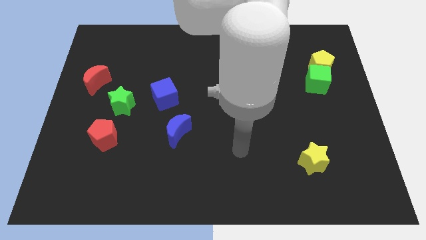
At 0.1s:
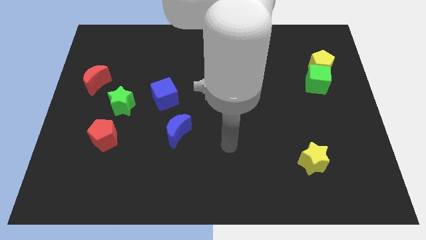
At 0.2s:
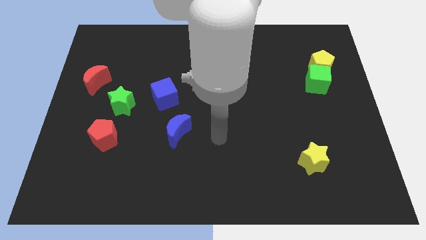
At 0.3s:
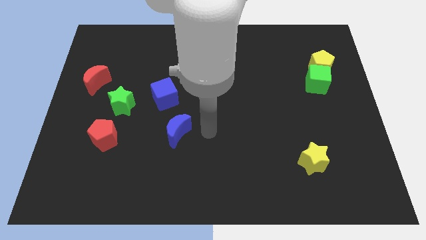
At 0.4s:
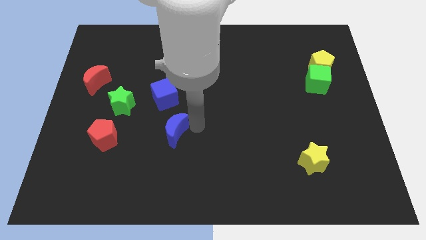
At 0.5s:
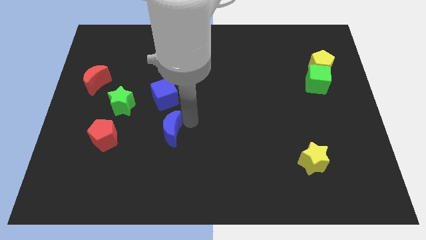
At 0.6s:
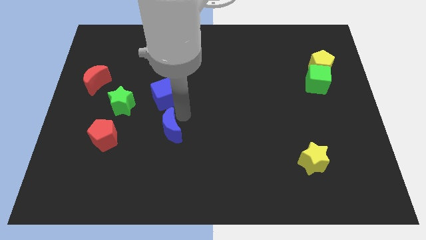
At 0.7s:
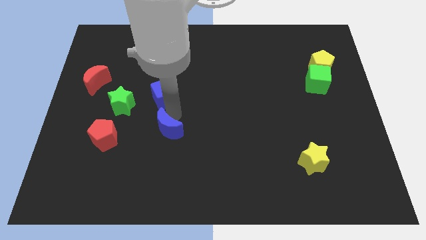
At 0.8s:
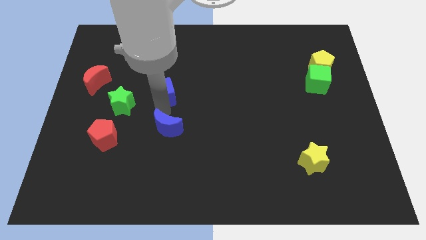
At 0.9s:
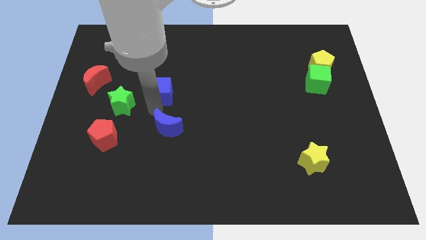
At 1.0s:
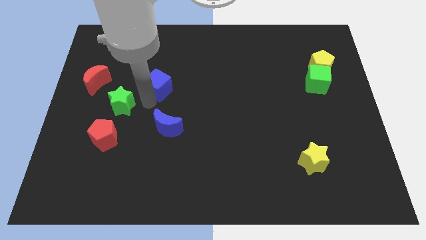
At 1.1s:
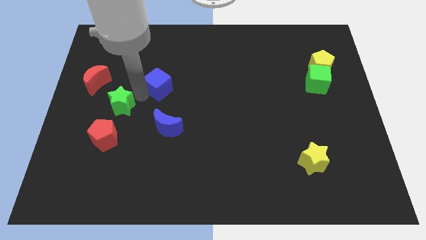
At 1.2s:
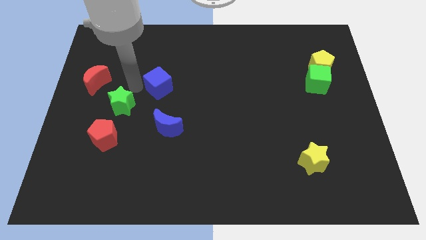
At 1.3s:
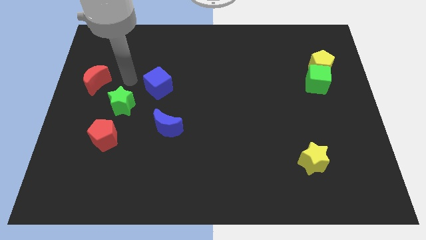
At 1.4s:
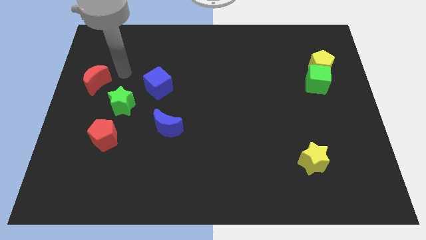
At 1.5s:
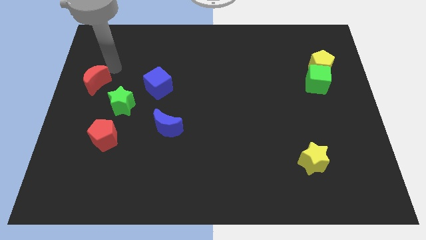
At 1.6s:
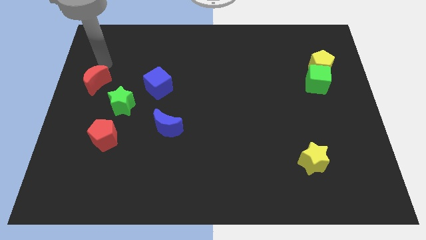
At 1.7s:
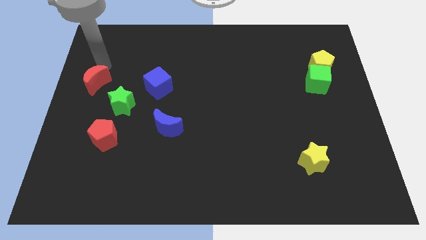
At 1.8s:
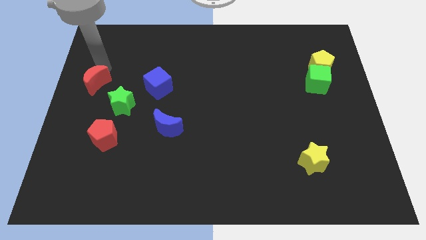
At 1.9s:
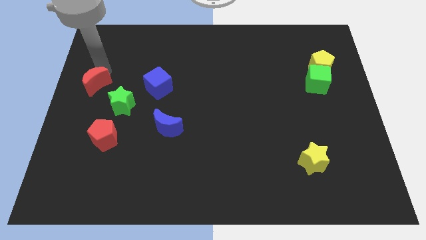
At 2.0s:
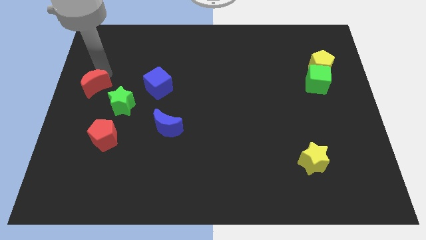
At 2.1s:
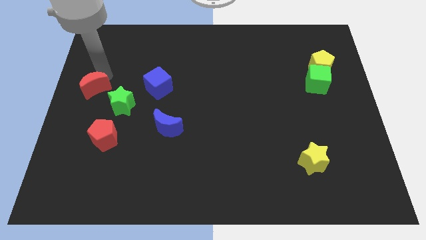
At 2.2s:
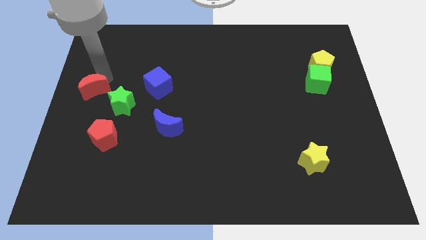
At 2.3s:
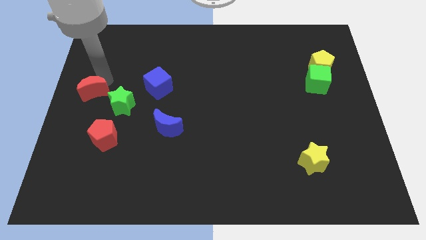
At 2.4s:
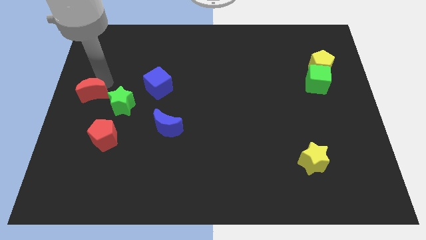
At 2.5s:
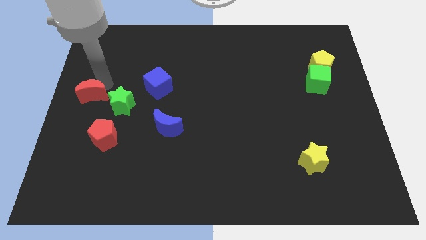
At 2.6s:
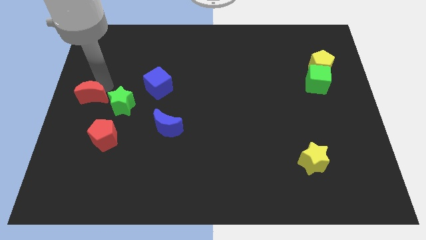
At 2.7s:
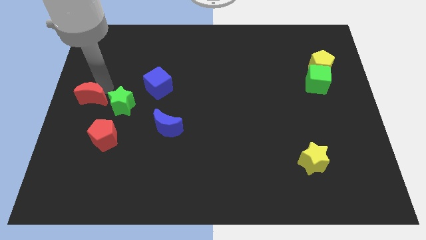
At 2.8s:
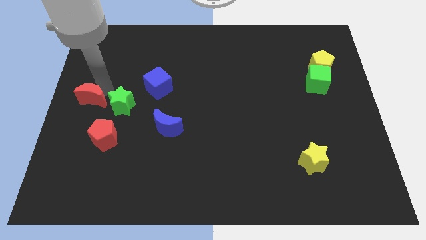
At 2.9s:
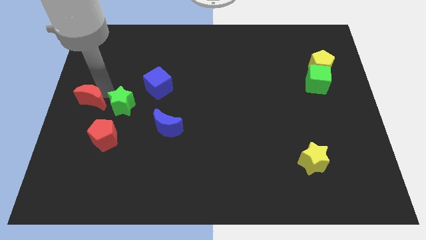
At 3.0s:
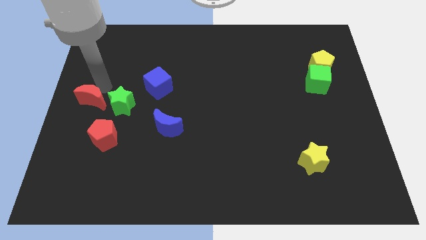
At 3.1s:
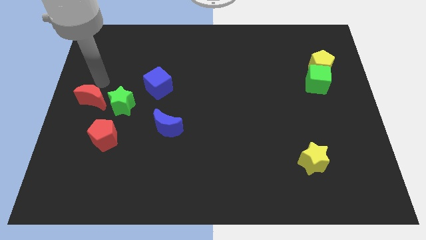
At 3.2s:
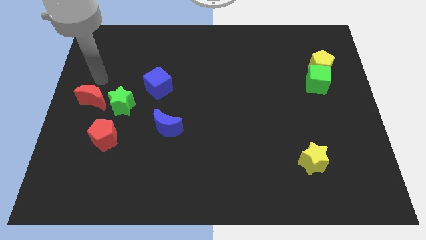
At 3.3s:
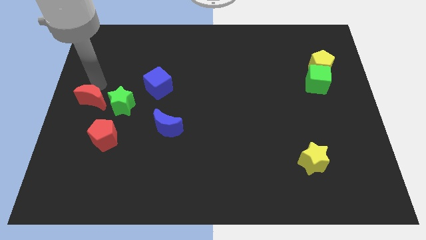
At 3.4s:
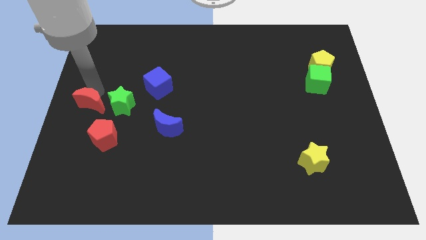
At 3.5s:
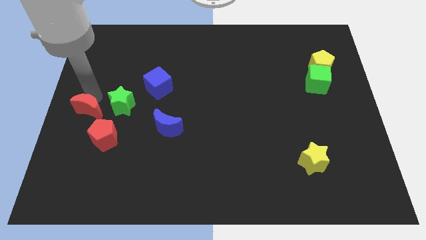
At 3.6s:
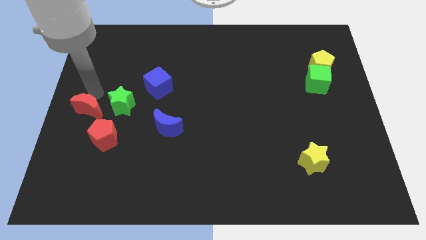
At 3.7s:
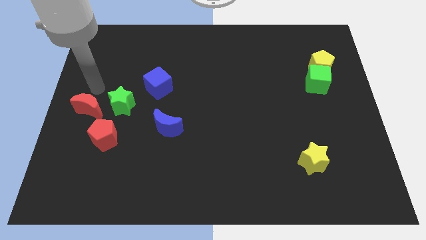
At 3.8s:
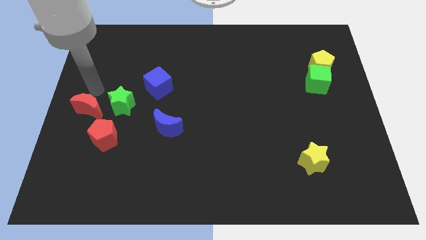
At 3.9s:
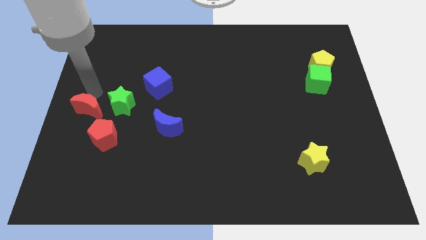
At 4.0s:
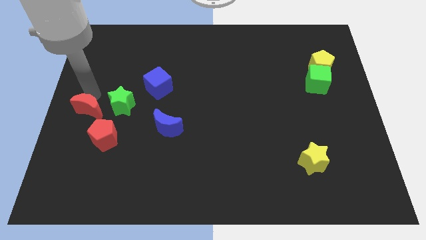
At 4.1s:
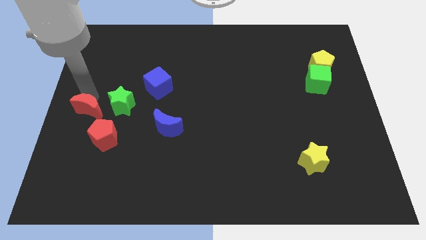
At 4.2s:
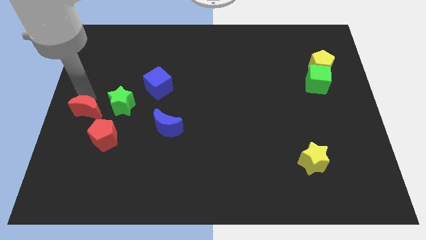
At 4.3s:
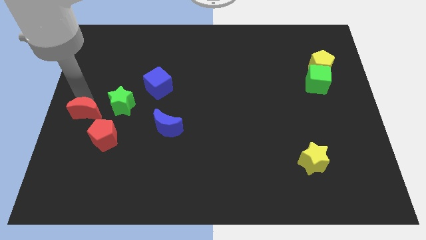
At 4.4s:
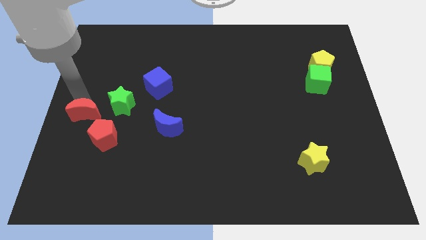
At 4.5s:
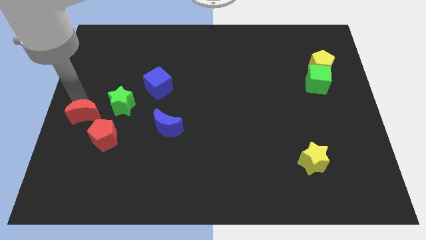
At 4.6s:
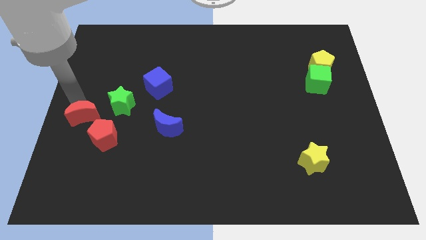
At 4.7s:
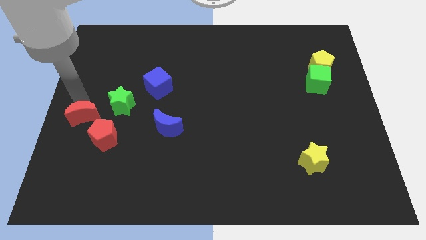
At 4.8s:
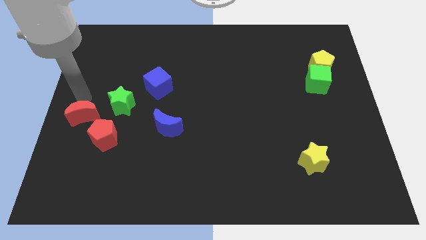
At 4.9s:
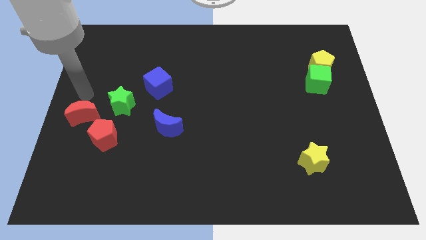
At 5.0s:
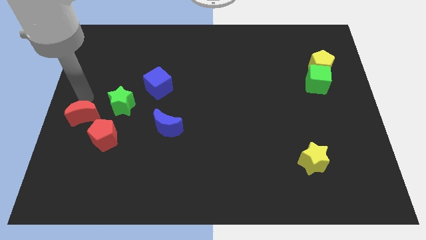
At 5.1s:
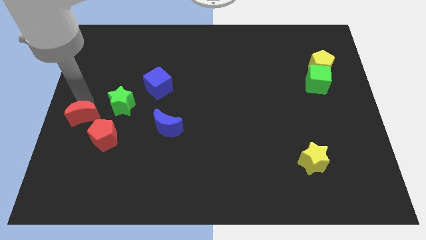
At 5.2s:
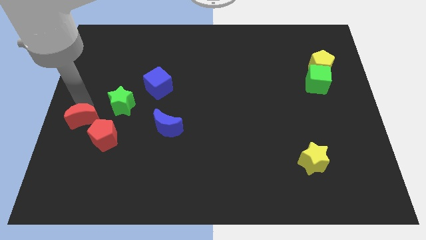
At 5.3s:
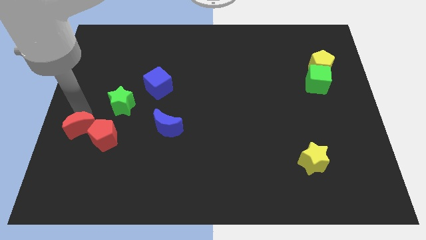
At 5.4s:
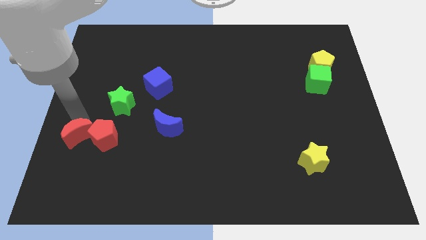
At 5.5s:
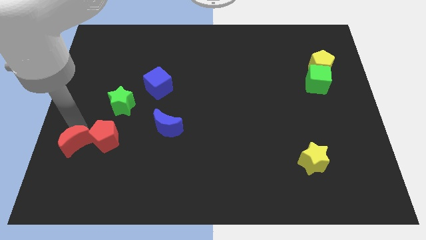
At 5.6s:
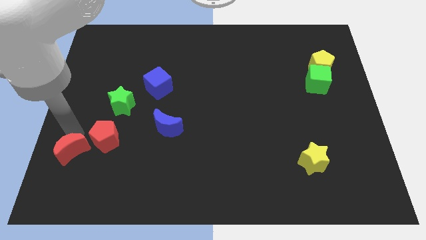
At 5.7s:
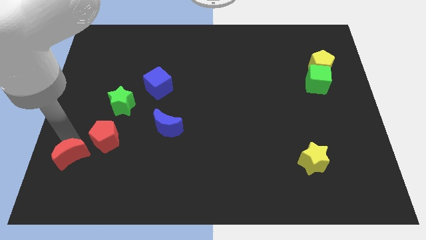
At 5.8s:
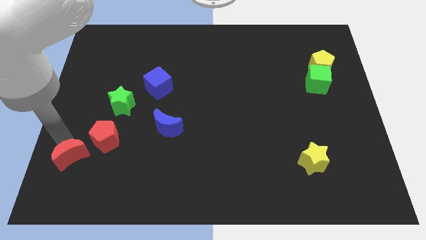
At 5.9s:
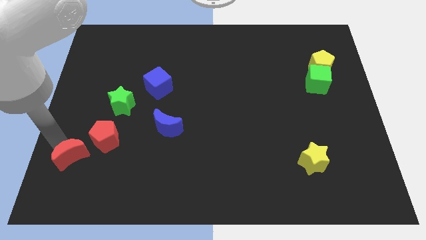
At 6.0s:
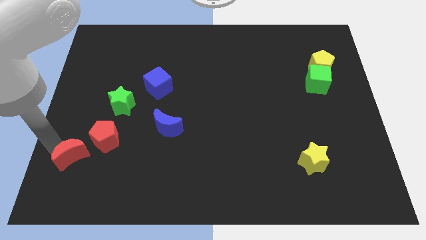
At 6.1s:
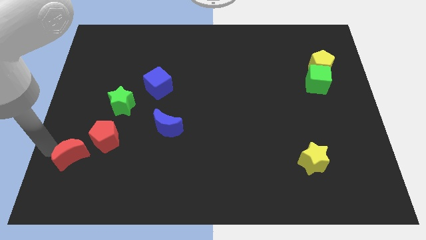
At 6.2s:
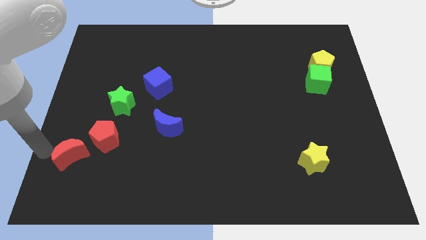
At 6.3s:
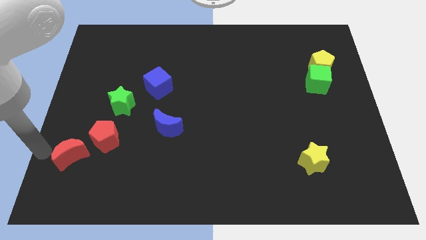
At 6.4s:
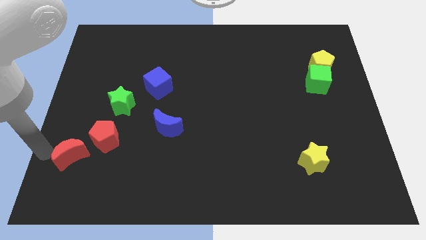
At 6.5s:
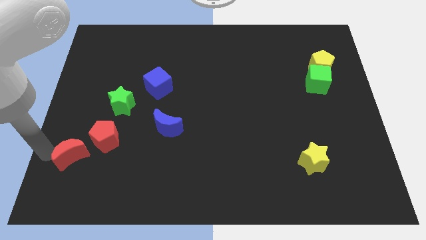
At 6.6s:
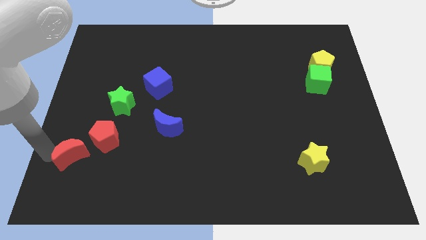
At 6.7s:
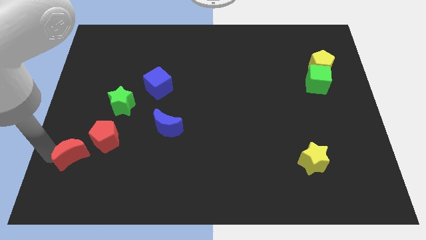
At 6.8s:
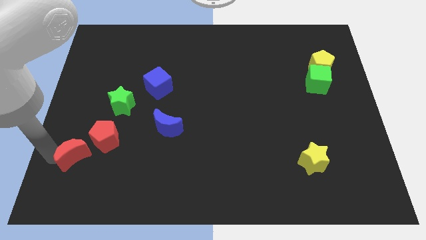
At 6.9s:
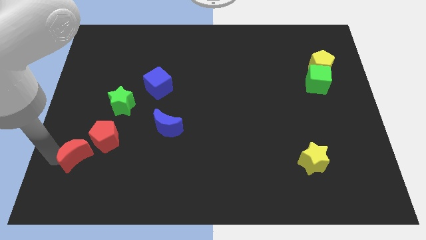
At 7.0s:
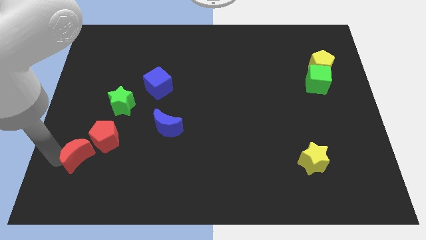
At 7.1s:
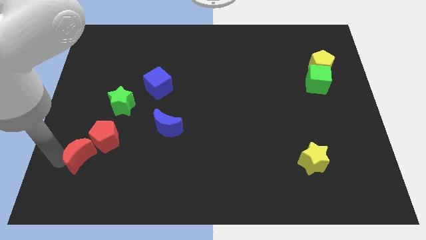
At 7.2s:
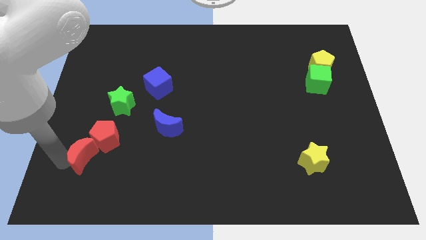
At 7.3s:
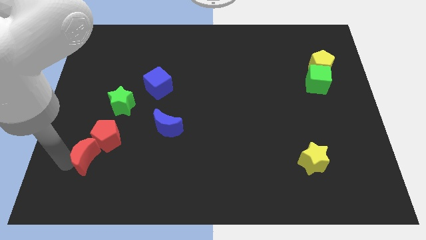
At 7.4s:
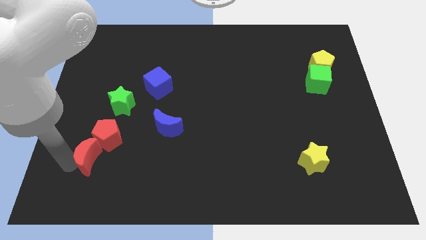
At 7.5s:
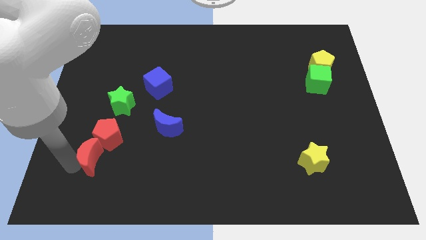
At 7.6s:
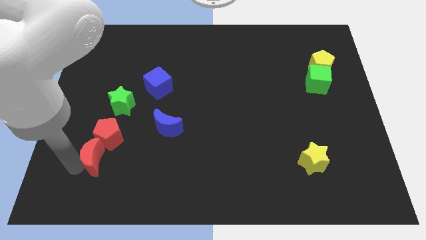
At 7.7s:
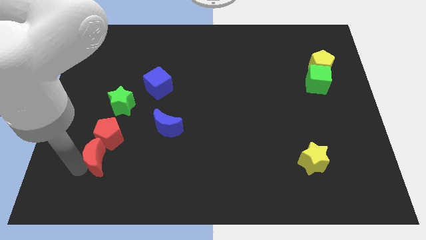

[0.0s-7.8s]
push the red moon a little diagonally down and right

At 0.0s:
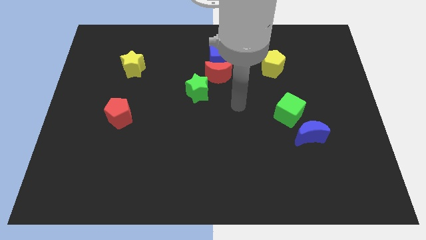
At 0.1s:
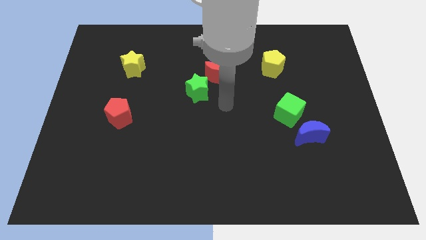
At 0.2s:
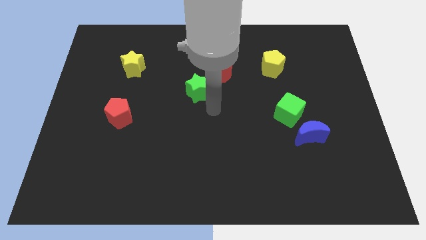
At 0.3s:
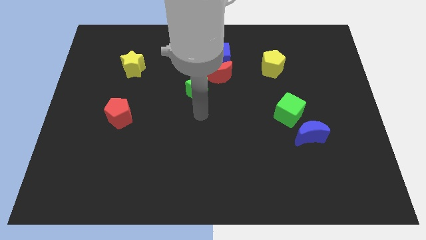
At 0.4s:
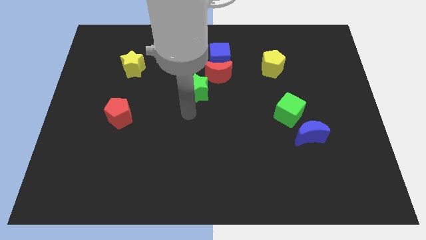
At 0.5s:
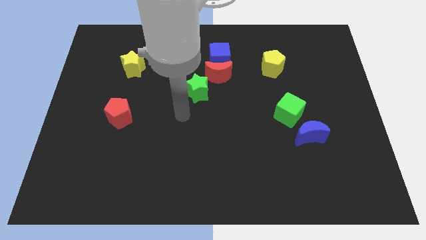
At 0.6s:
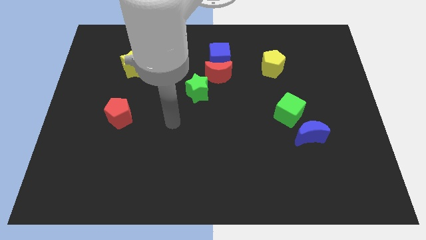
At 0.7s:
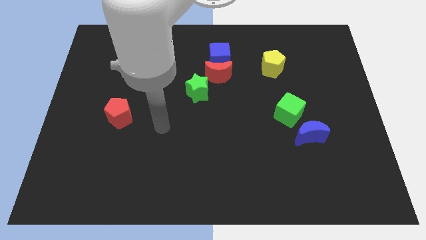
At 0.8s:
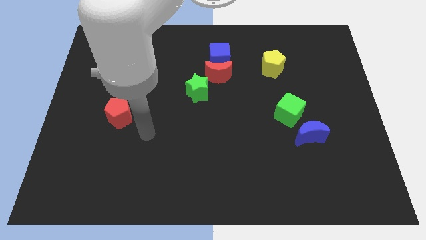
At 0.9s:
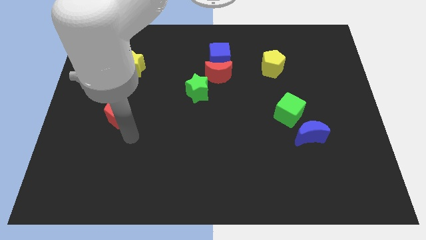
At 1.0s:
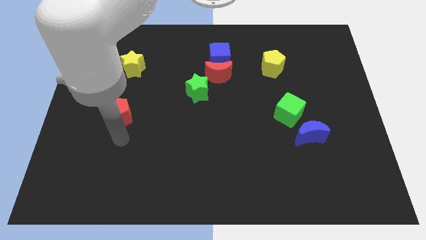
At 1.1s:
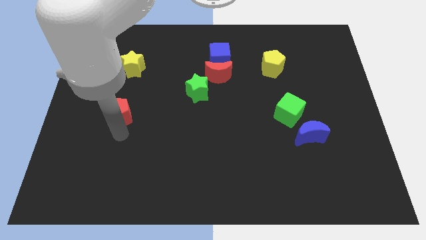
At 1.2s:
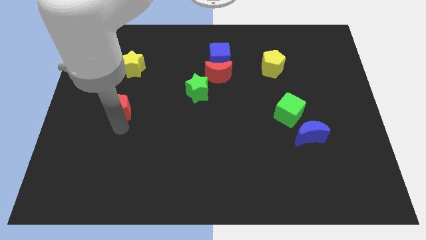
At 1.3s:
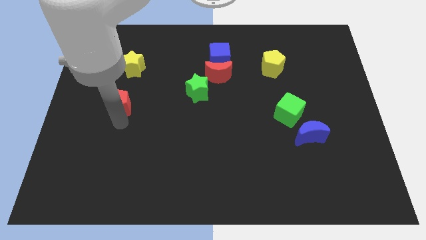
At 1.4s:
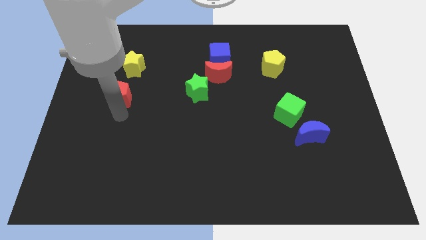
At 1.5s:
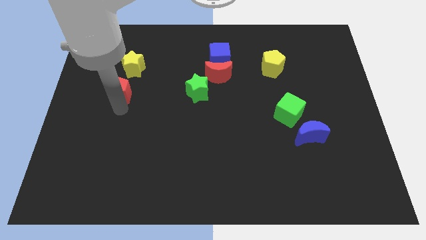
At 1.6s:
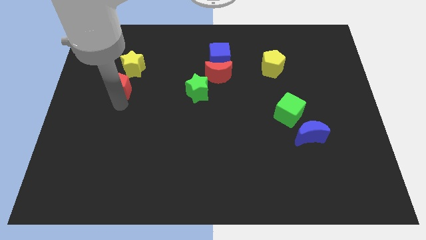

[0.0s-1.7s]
push the red pentagon up slightly
